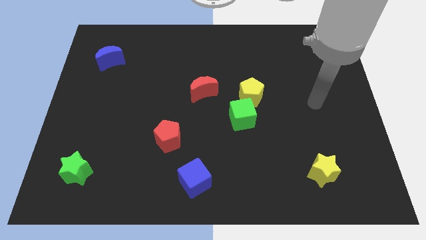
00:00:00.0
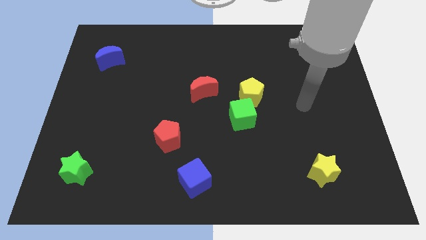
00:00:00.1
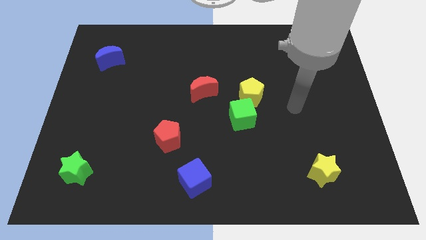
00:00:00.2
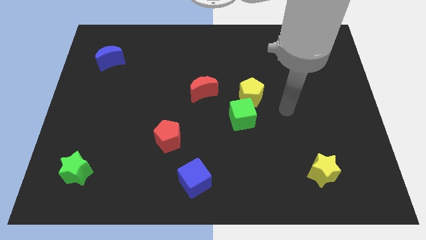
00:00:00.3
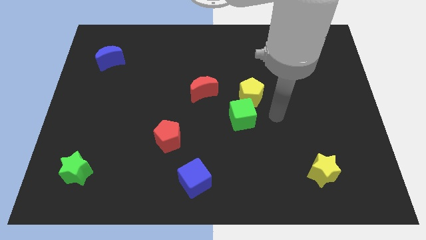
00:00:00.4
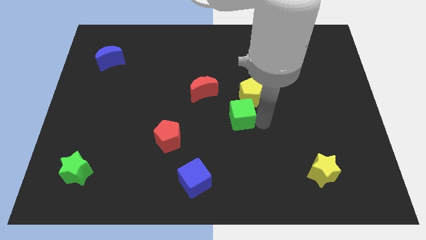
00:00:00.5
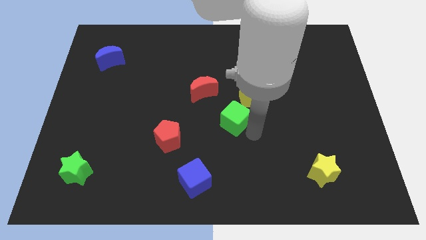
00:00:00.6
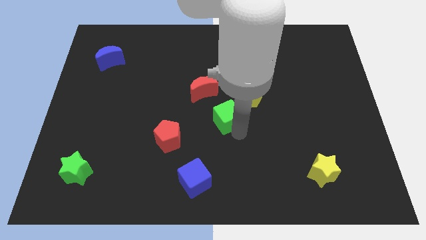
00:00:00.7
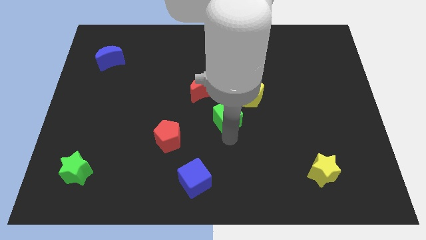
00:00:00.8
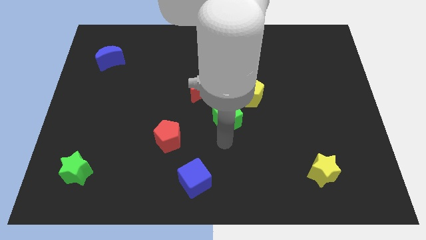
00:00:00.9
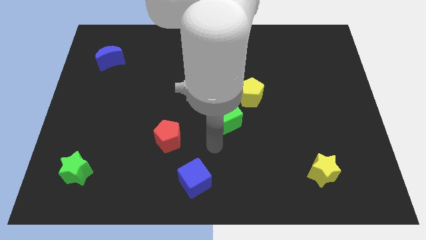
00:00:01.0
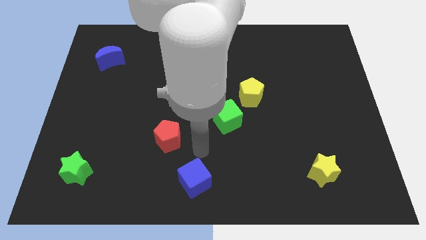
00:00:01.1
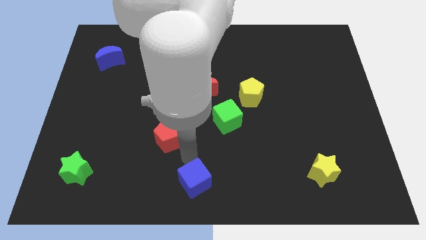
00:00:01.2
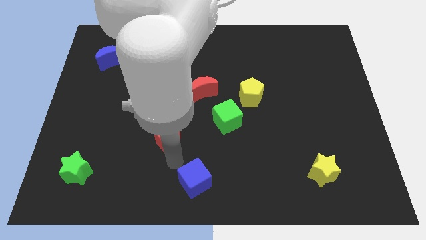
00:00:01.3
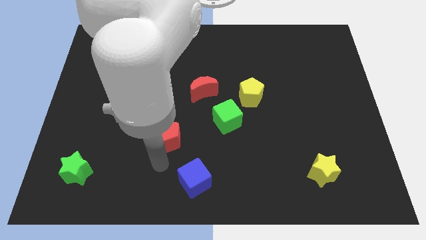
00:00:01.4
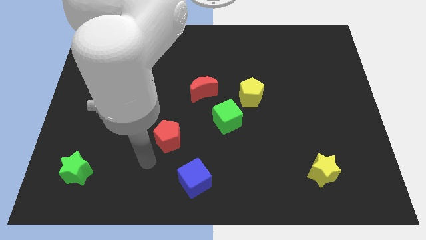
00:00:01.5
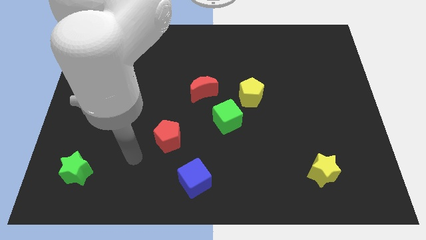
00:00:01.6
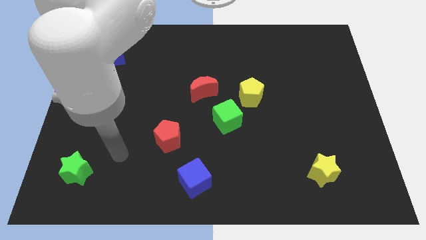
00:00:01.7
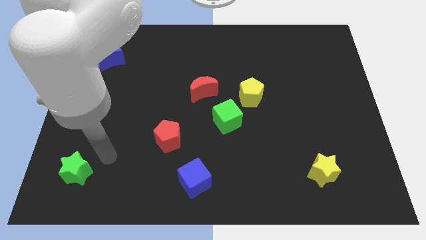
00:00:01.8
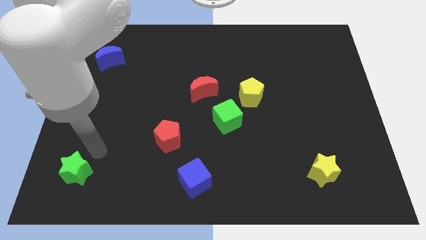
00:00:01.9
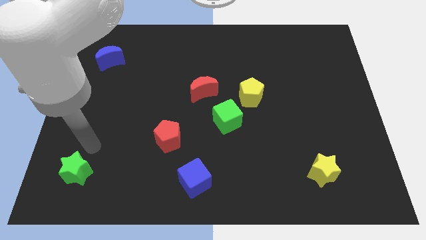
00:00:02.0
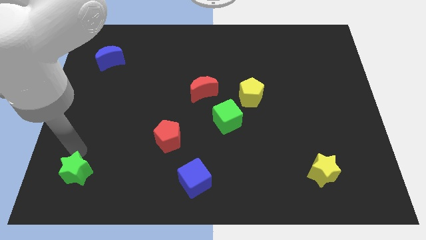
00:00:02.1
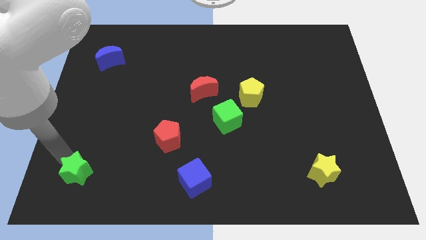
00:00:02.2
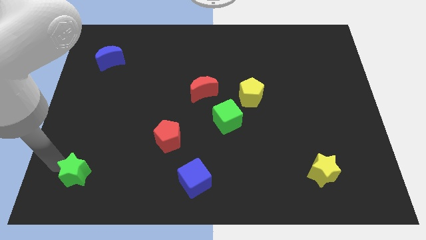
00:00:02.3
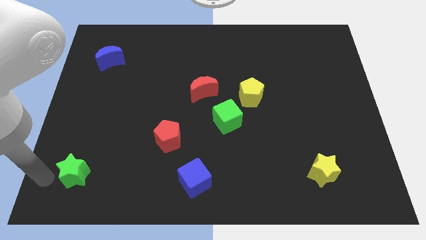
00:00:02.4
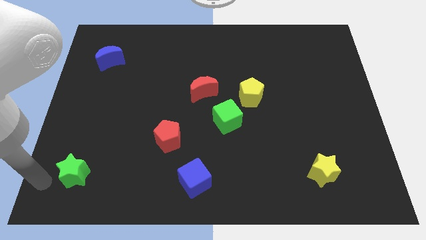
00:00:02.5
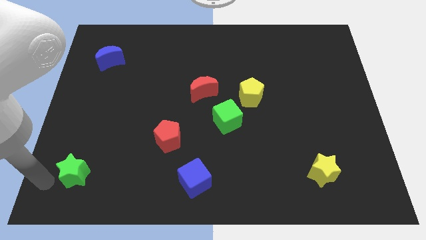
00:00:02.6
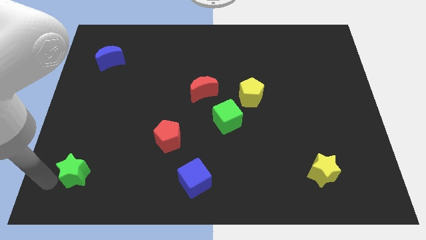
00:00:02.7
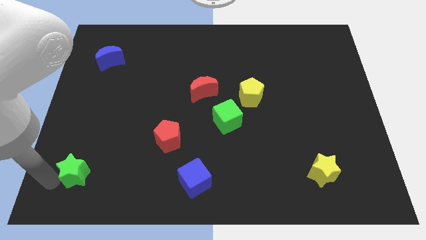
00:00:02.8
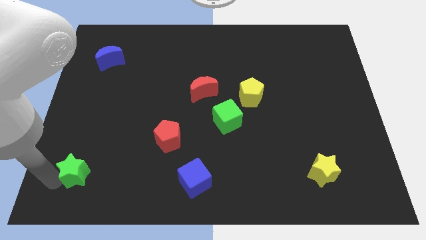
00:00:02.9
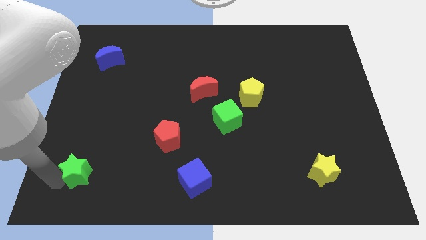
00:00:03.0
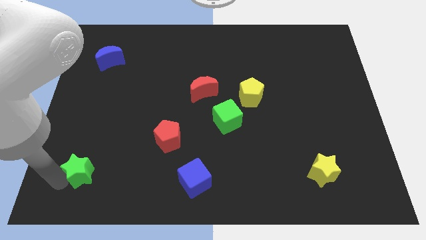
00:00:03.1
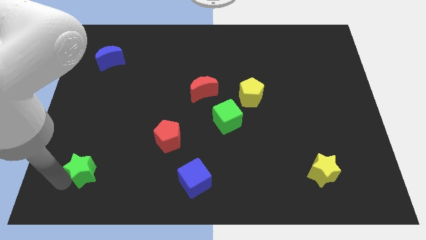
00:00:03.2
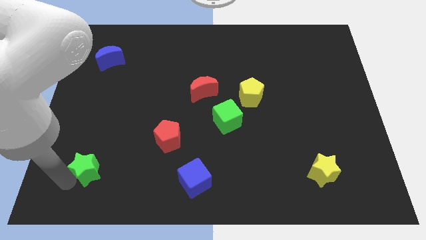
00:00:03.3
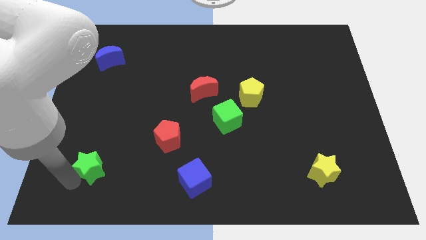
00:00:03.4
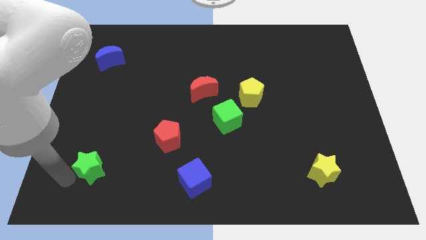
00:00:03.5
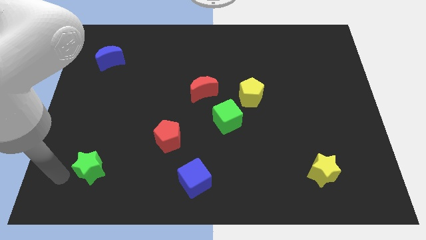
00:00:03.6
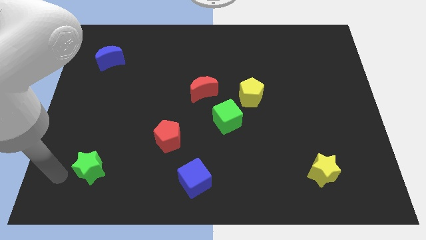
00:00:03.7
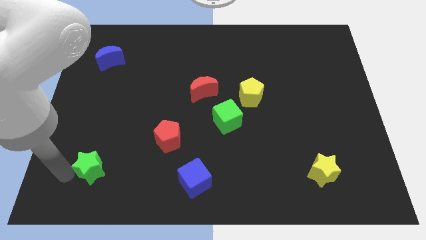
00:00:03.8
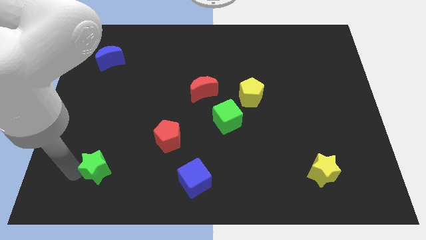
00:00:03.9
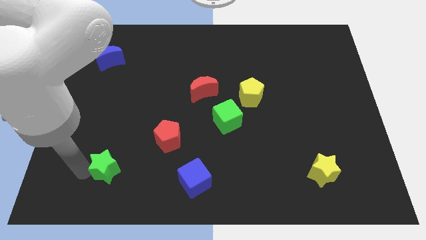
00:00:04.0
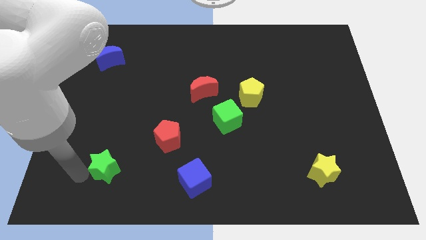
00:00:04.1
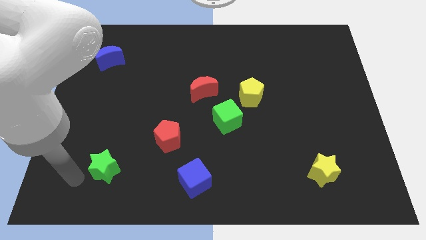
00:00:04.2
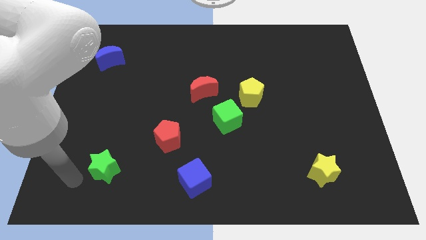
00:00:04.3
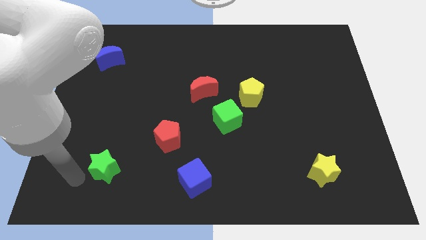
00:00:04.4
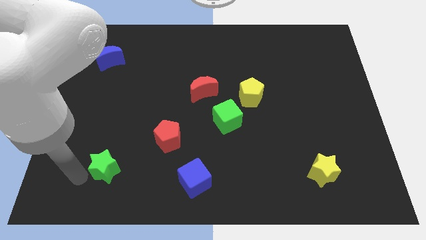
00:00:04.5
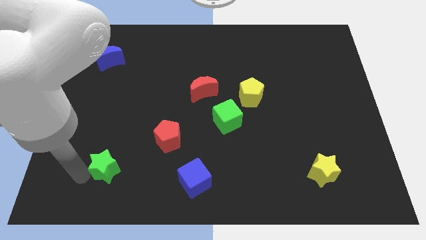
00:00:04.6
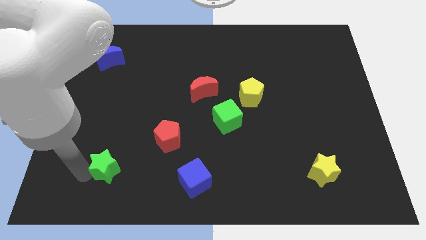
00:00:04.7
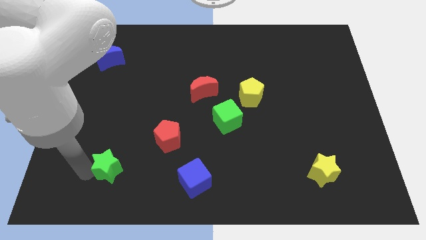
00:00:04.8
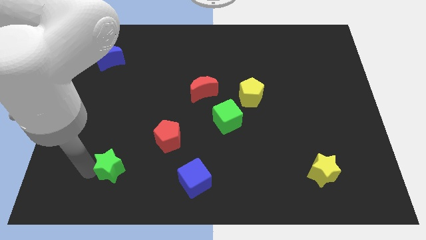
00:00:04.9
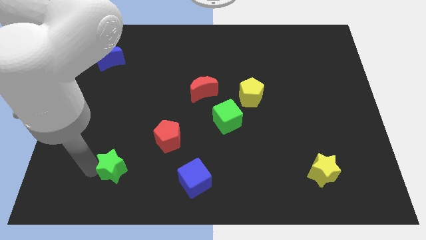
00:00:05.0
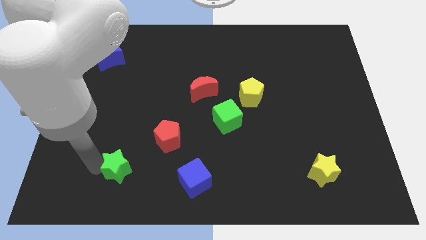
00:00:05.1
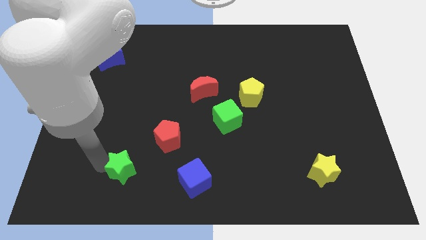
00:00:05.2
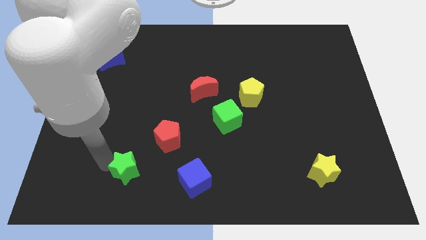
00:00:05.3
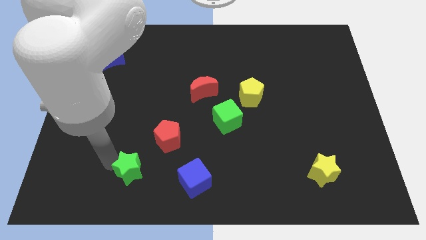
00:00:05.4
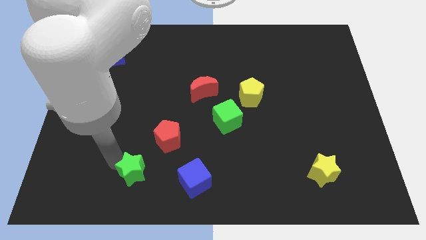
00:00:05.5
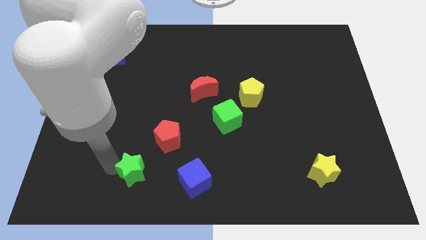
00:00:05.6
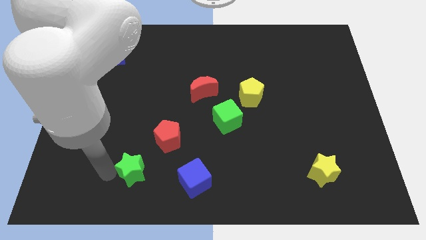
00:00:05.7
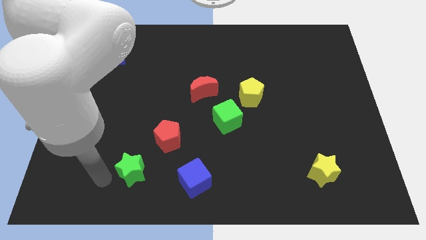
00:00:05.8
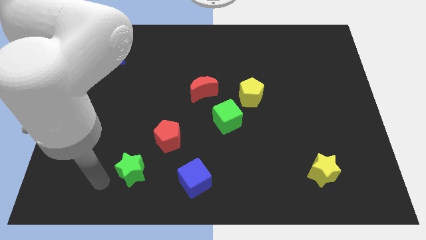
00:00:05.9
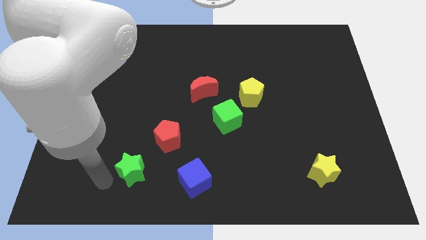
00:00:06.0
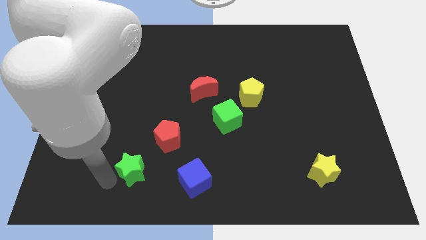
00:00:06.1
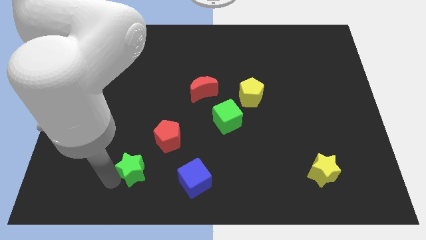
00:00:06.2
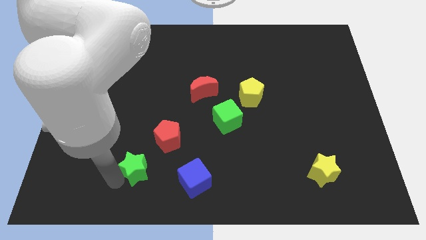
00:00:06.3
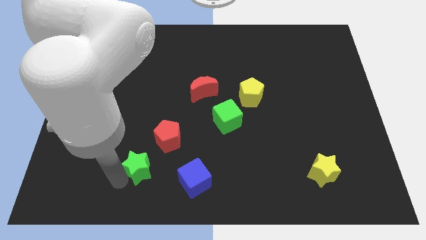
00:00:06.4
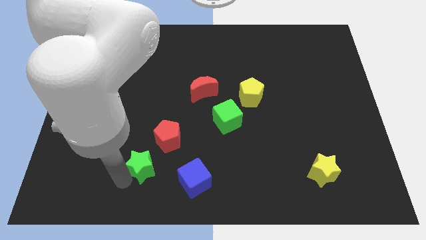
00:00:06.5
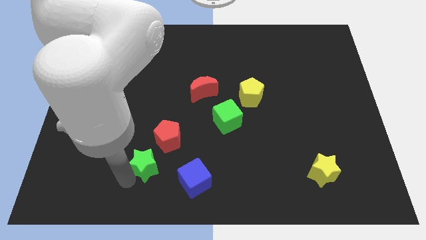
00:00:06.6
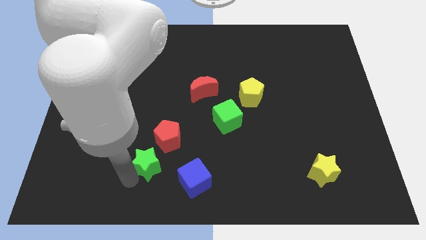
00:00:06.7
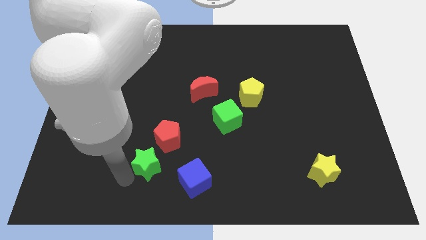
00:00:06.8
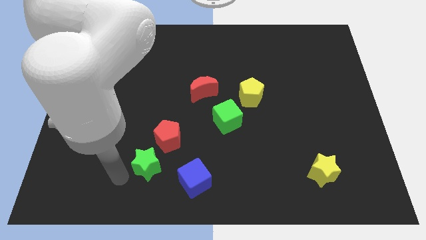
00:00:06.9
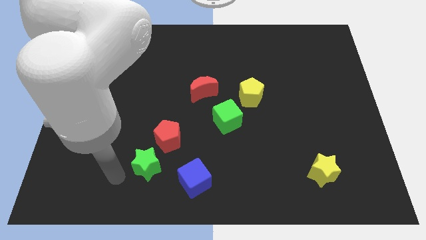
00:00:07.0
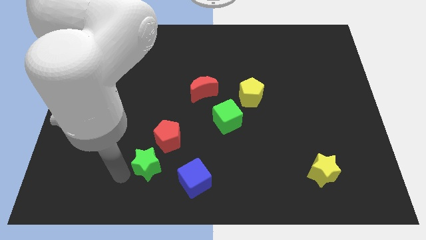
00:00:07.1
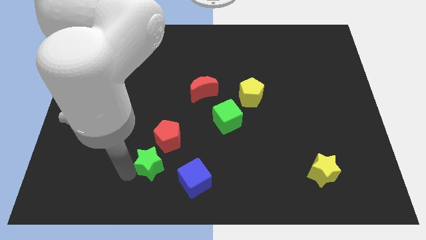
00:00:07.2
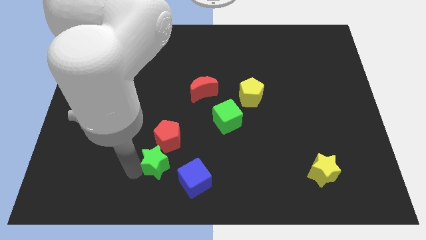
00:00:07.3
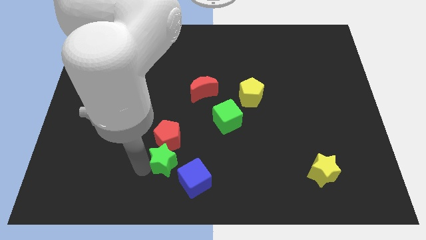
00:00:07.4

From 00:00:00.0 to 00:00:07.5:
put the green star to the bottom right side of the red pentagon

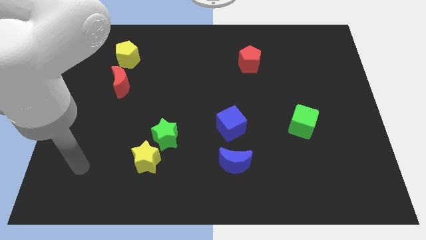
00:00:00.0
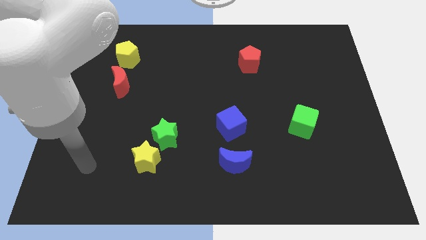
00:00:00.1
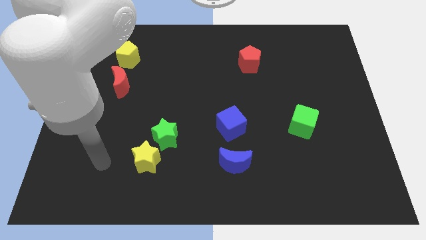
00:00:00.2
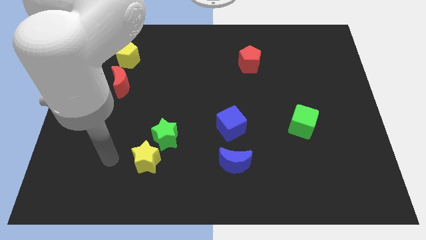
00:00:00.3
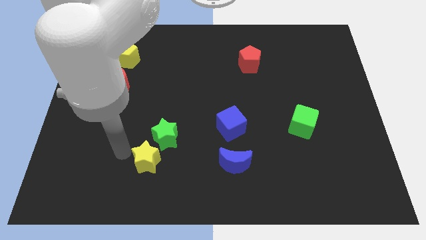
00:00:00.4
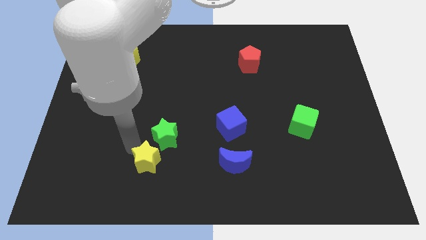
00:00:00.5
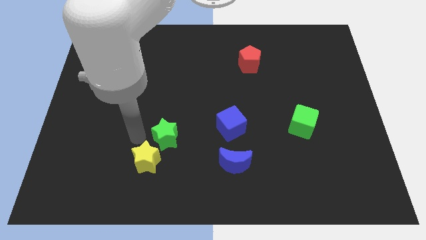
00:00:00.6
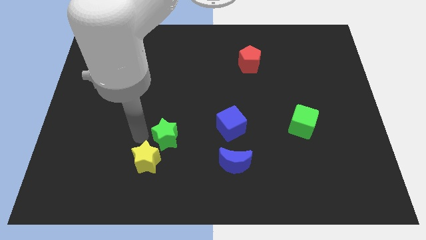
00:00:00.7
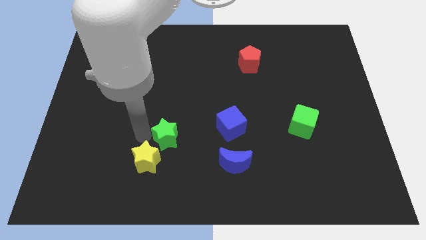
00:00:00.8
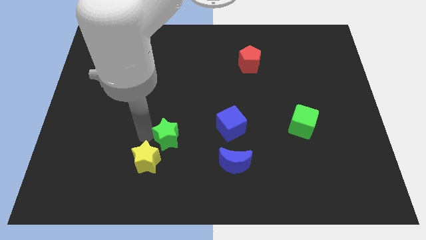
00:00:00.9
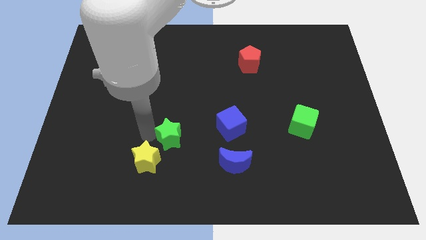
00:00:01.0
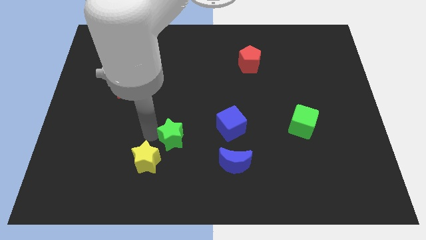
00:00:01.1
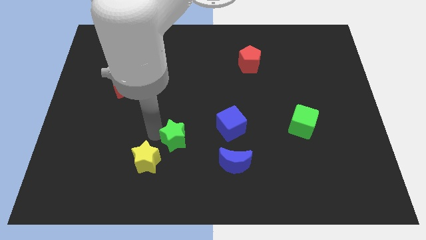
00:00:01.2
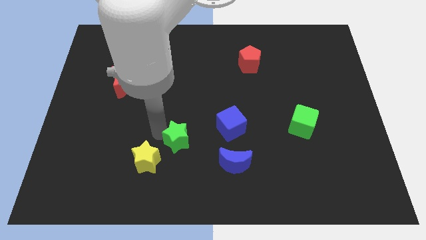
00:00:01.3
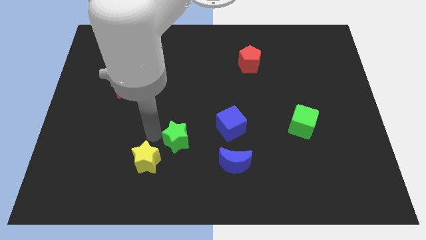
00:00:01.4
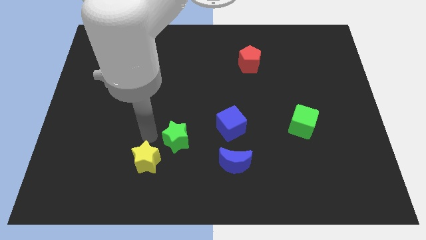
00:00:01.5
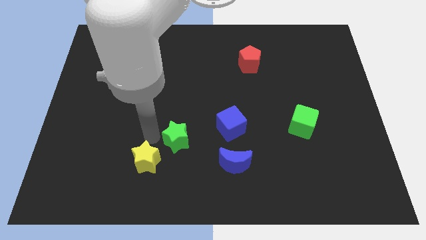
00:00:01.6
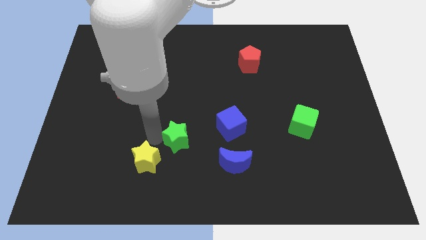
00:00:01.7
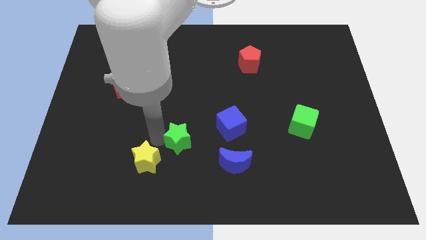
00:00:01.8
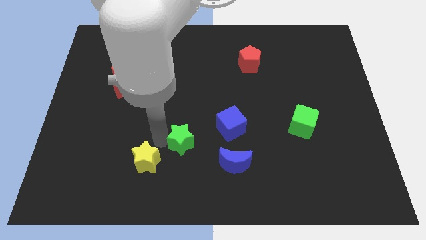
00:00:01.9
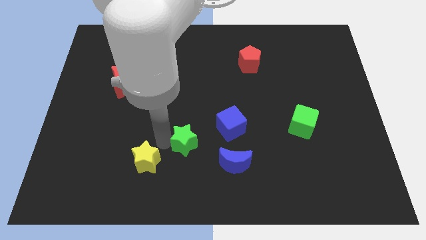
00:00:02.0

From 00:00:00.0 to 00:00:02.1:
slide the green star diagonally up and to the left of the blue moon
